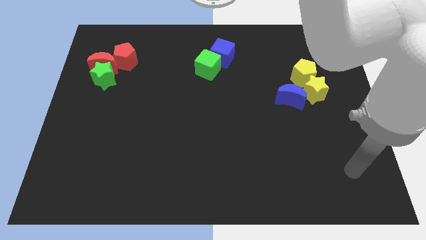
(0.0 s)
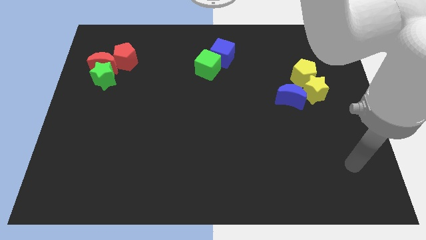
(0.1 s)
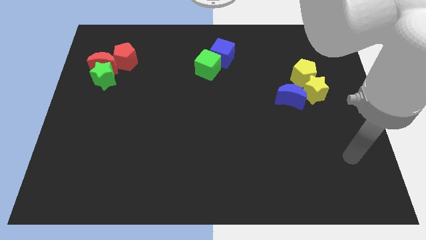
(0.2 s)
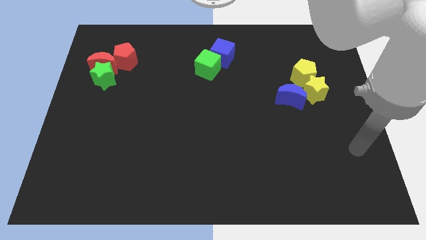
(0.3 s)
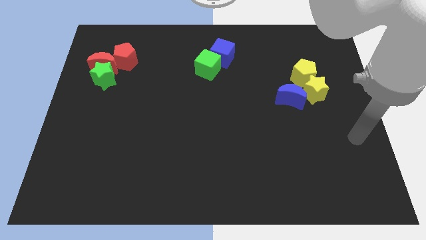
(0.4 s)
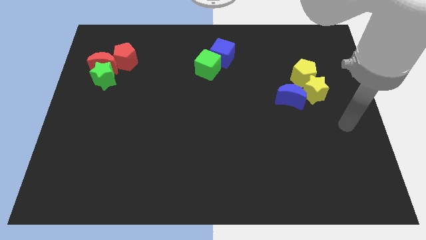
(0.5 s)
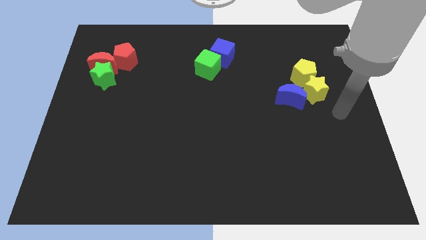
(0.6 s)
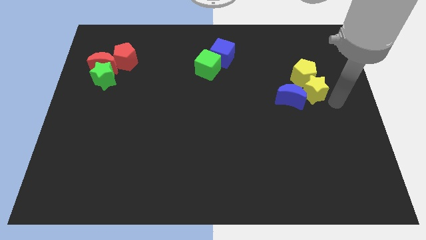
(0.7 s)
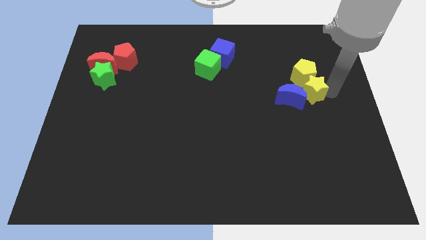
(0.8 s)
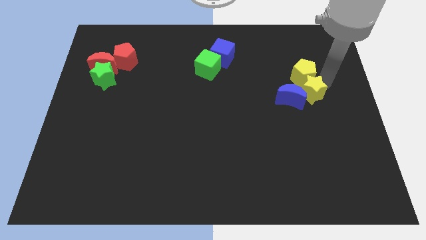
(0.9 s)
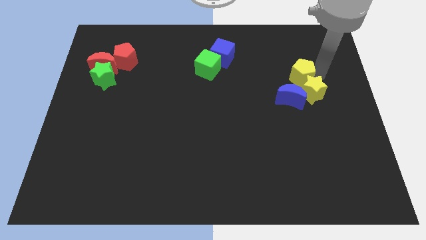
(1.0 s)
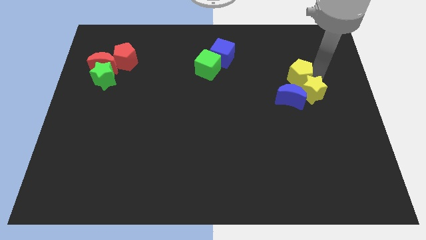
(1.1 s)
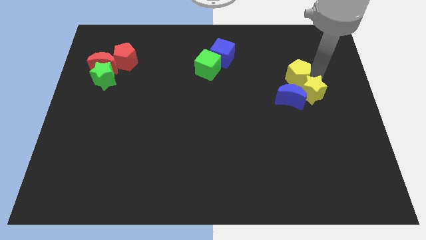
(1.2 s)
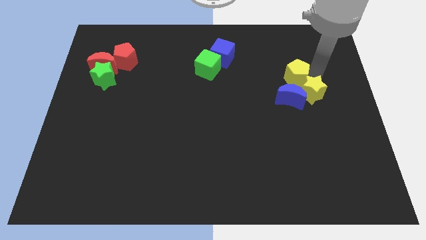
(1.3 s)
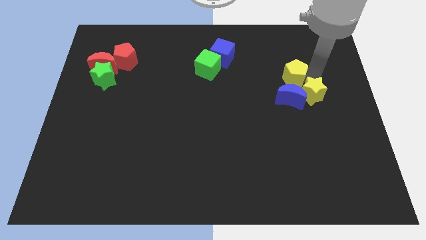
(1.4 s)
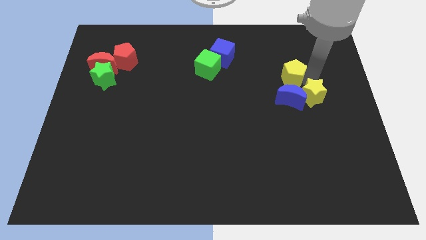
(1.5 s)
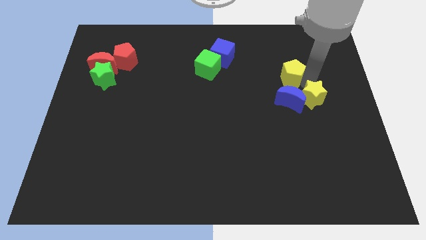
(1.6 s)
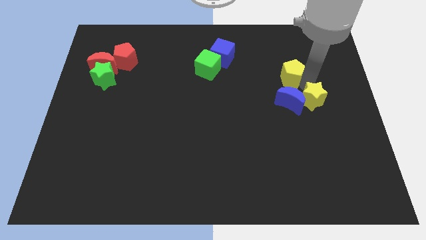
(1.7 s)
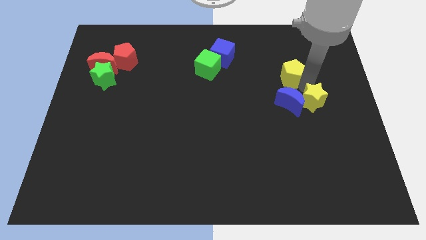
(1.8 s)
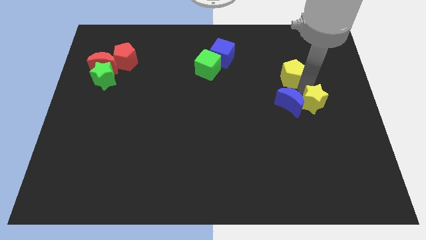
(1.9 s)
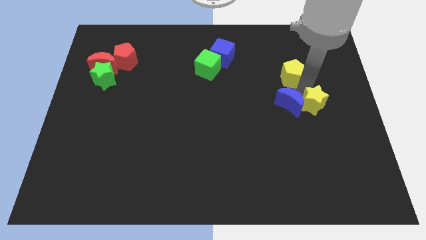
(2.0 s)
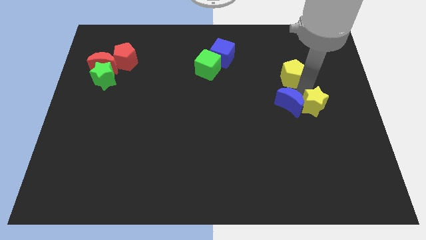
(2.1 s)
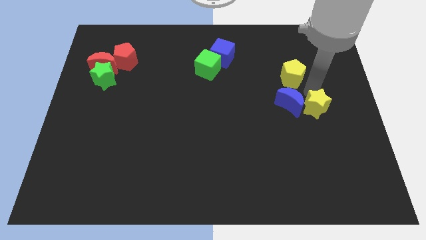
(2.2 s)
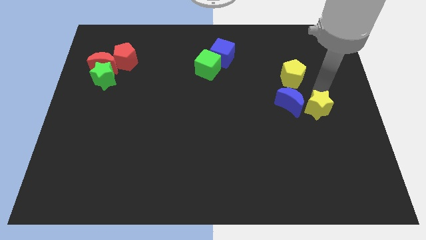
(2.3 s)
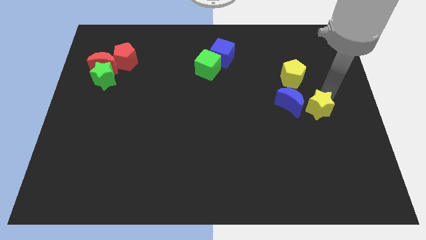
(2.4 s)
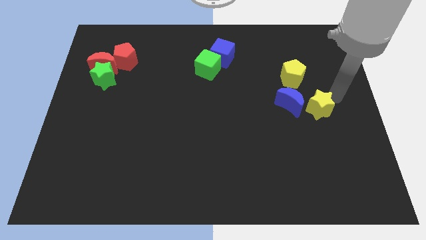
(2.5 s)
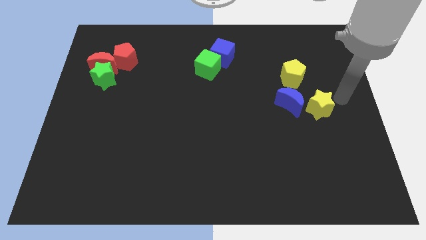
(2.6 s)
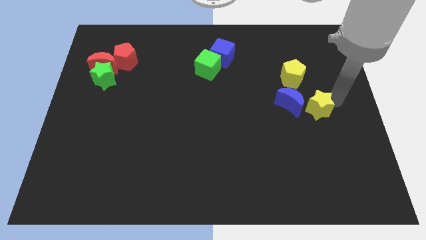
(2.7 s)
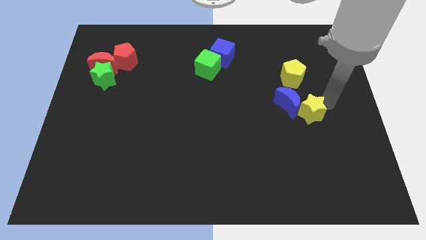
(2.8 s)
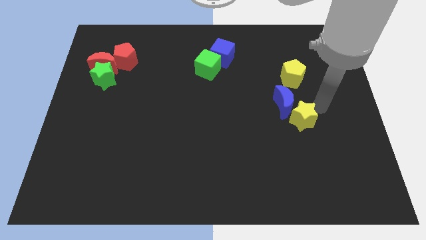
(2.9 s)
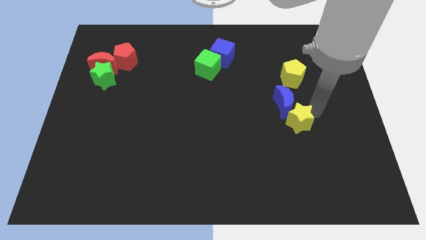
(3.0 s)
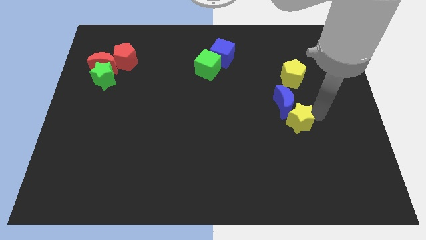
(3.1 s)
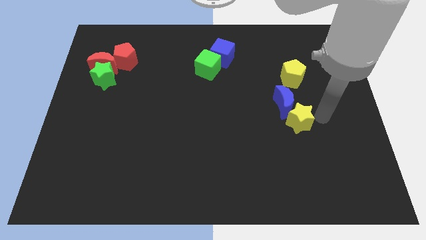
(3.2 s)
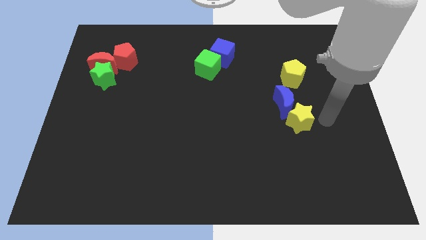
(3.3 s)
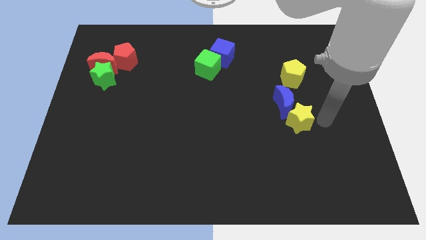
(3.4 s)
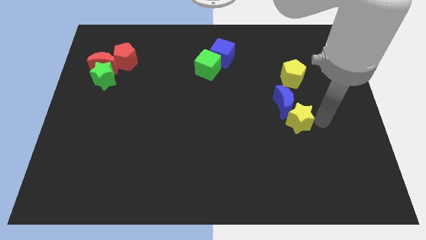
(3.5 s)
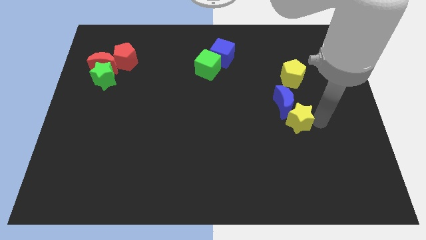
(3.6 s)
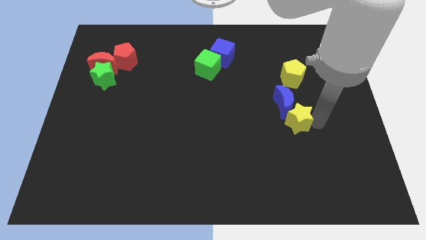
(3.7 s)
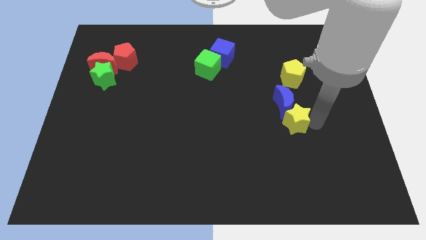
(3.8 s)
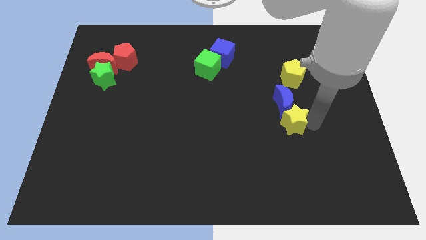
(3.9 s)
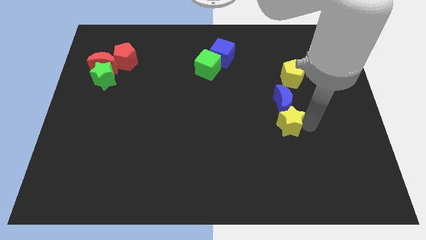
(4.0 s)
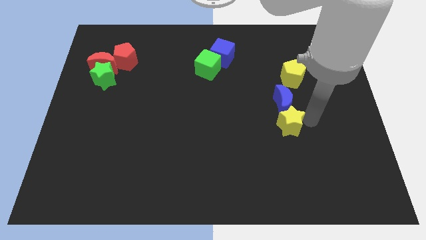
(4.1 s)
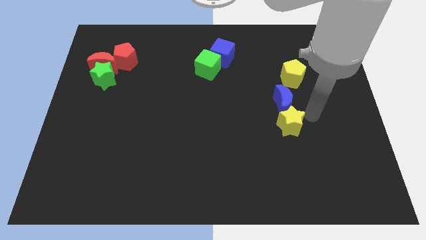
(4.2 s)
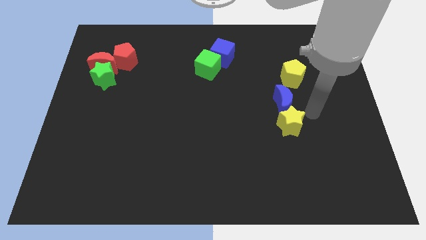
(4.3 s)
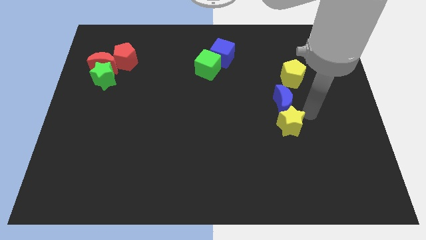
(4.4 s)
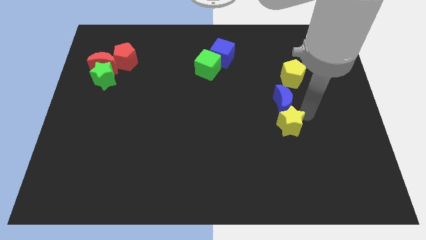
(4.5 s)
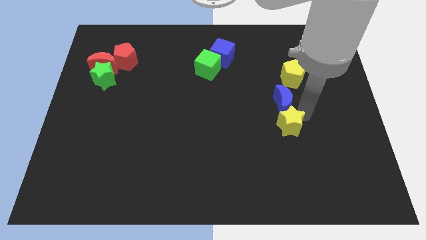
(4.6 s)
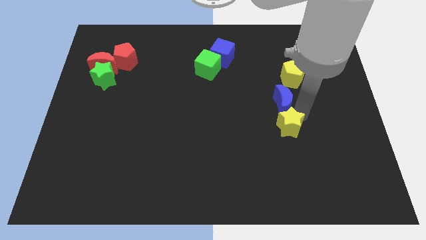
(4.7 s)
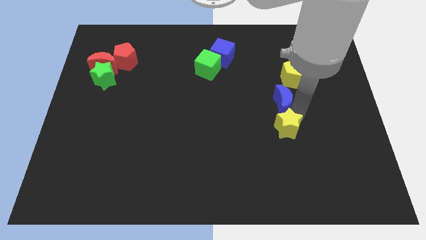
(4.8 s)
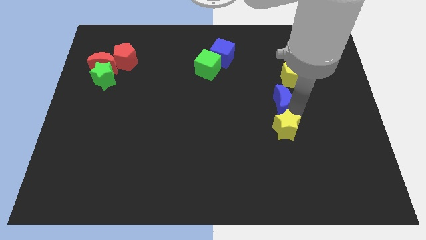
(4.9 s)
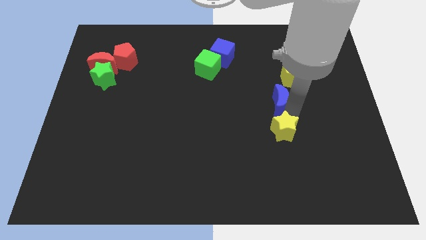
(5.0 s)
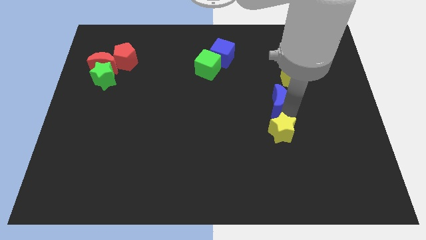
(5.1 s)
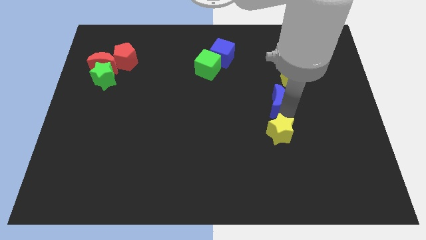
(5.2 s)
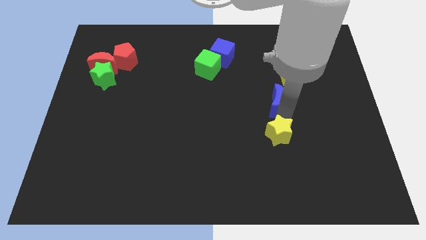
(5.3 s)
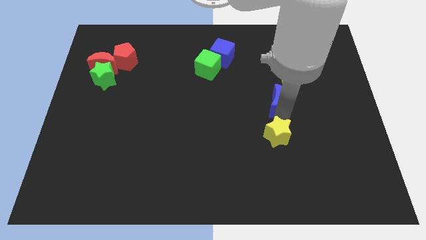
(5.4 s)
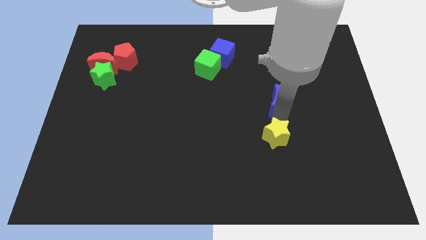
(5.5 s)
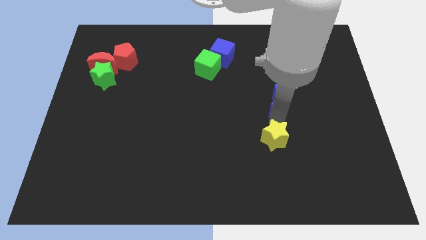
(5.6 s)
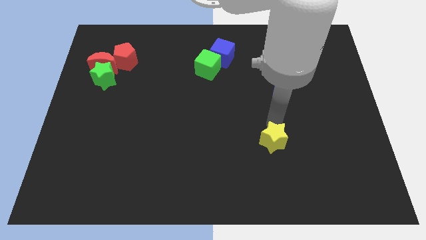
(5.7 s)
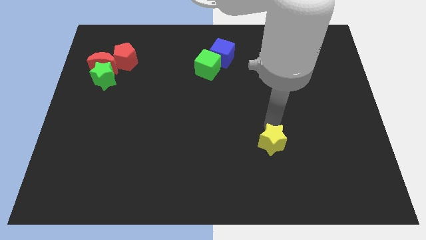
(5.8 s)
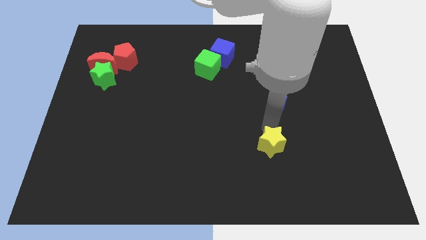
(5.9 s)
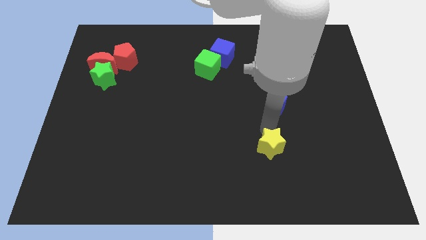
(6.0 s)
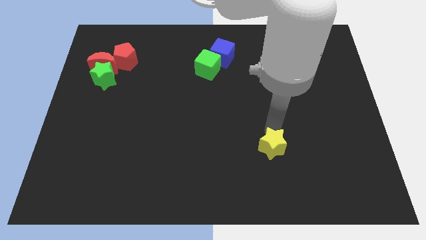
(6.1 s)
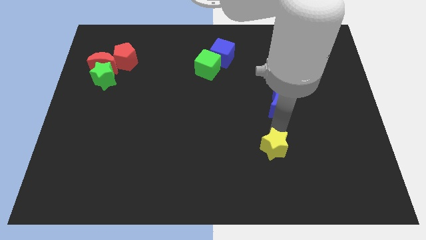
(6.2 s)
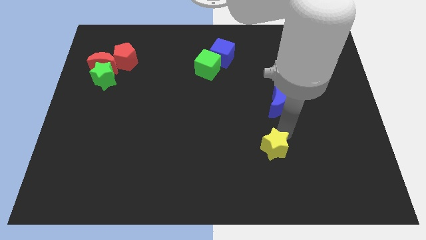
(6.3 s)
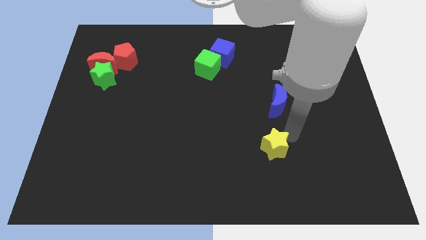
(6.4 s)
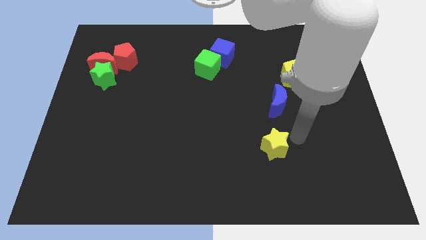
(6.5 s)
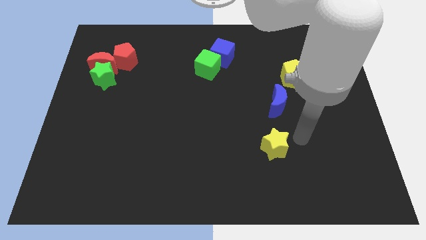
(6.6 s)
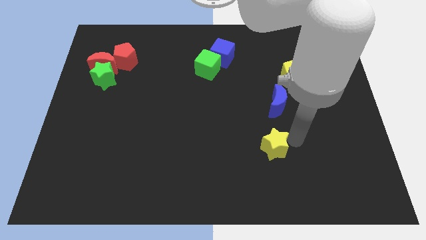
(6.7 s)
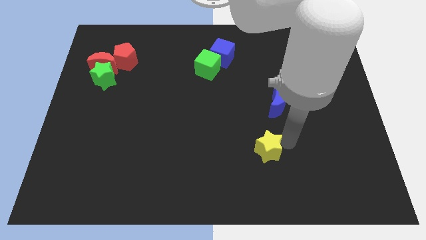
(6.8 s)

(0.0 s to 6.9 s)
slide the yellow star diagonally downwards and to the left

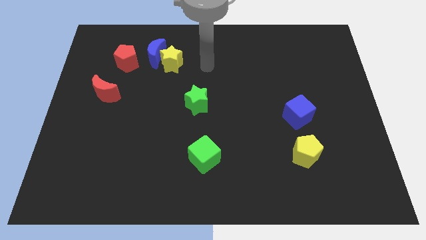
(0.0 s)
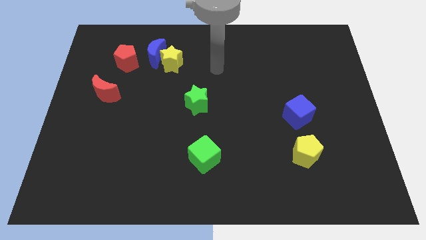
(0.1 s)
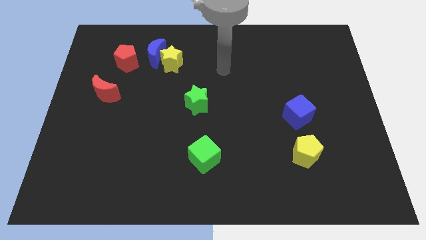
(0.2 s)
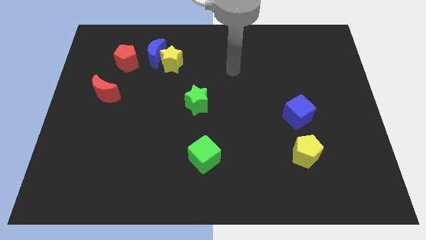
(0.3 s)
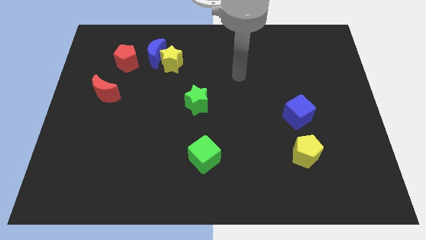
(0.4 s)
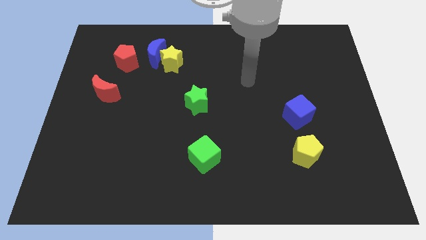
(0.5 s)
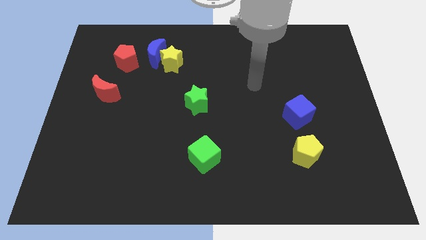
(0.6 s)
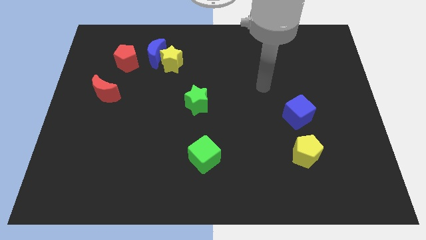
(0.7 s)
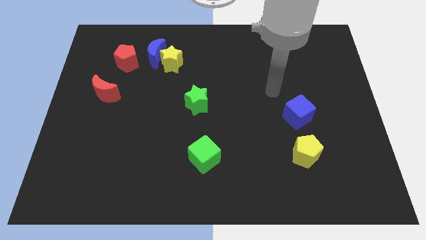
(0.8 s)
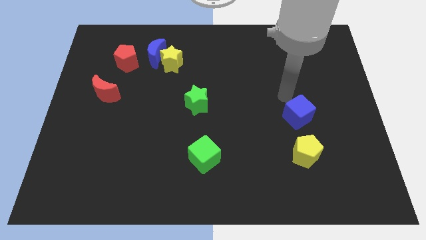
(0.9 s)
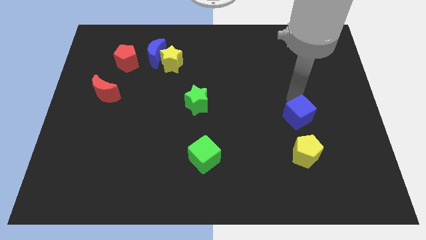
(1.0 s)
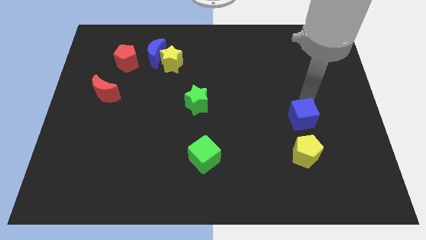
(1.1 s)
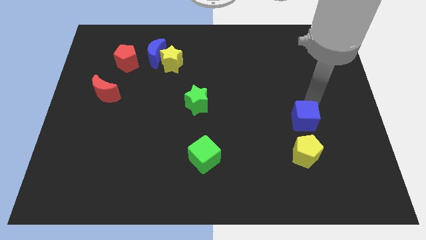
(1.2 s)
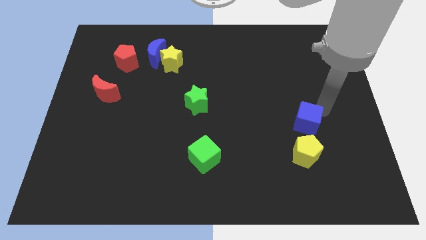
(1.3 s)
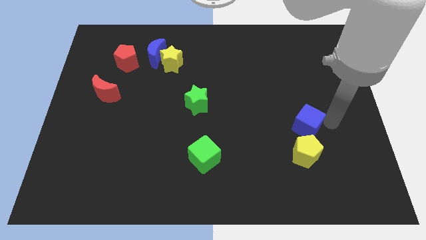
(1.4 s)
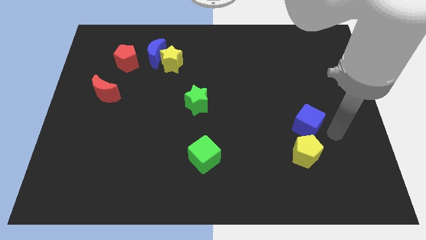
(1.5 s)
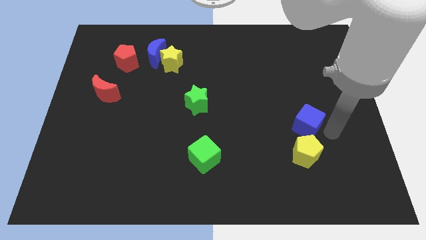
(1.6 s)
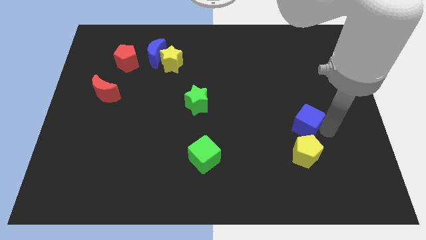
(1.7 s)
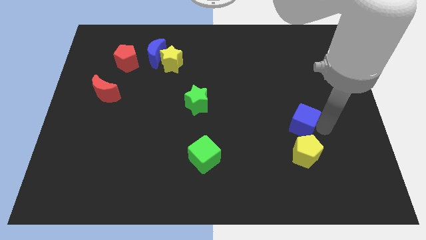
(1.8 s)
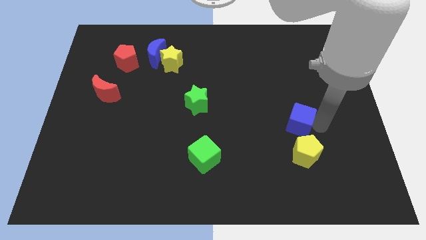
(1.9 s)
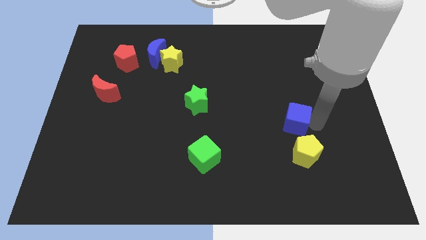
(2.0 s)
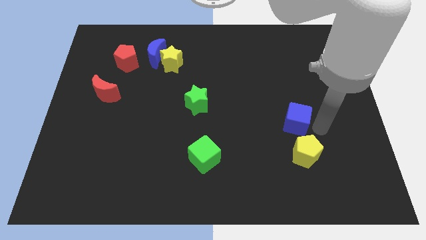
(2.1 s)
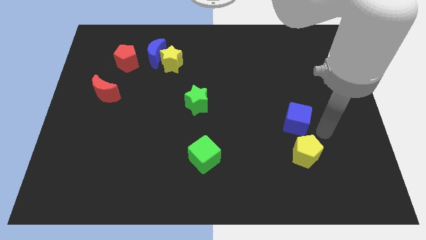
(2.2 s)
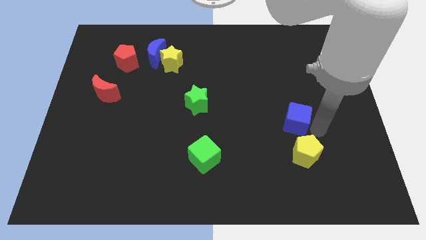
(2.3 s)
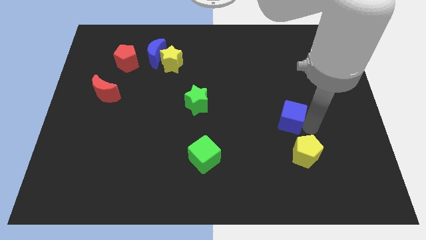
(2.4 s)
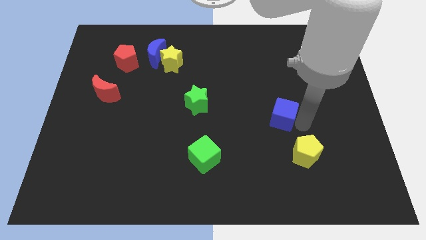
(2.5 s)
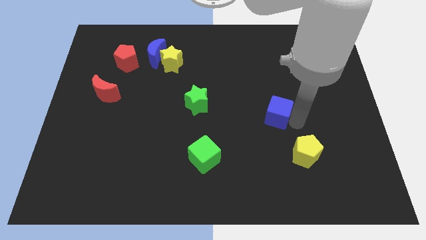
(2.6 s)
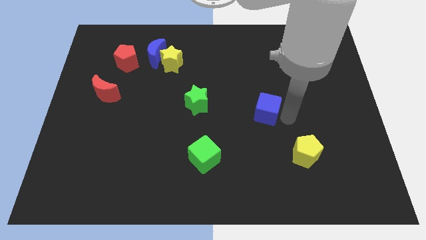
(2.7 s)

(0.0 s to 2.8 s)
slide the blue cube somewhat to the left
